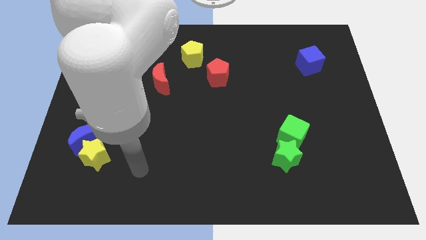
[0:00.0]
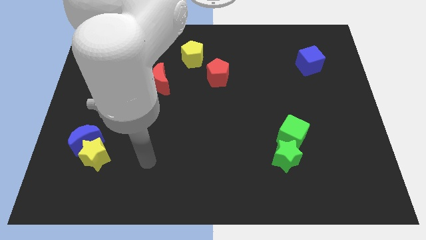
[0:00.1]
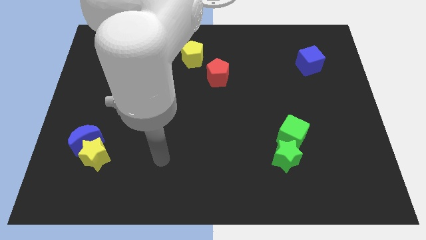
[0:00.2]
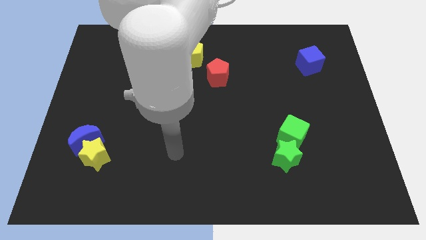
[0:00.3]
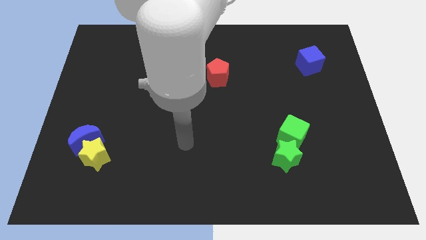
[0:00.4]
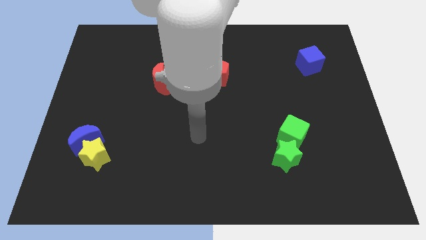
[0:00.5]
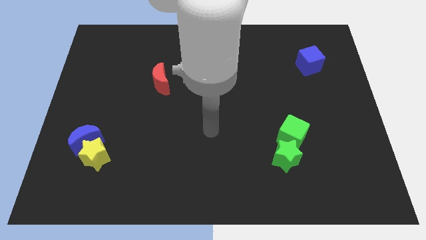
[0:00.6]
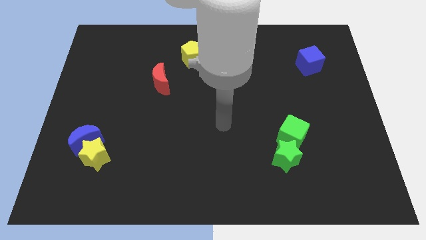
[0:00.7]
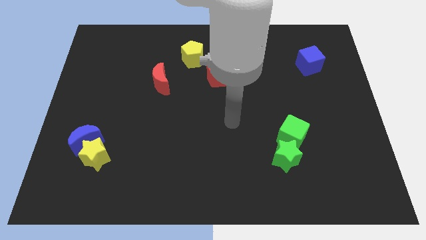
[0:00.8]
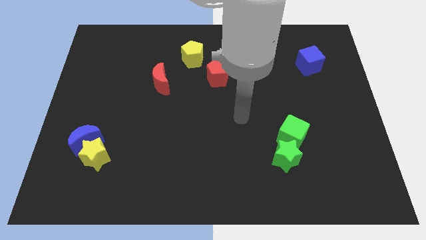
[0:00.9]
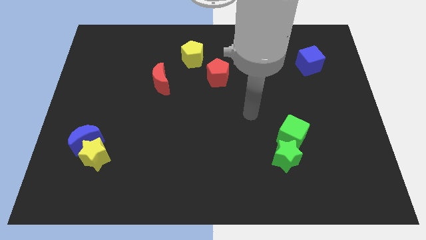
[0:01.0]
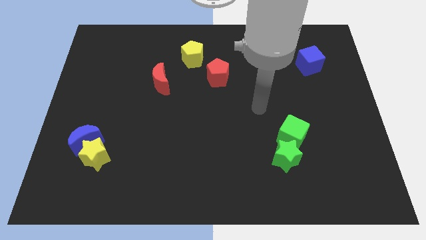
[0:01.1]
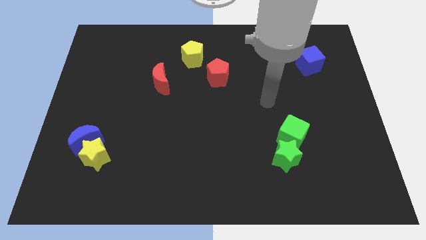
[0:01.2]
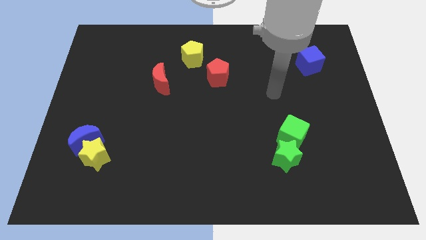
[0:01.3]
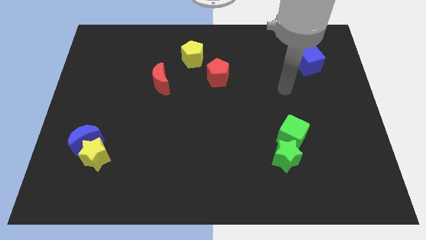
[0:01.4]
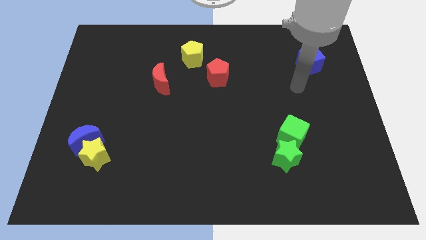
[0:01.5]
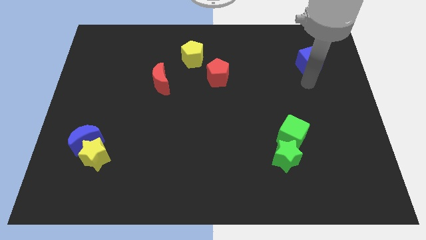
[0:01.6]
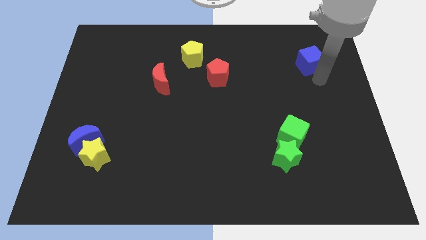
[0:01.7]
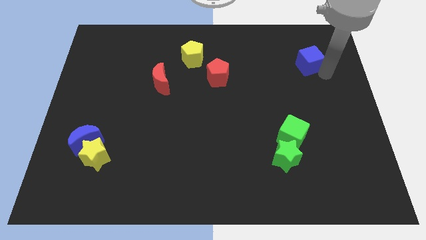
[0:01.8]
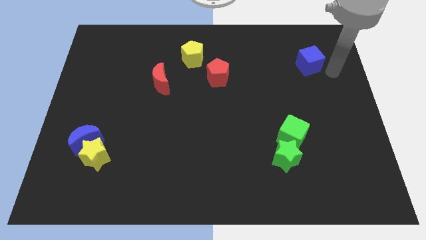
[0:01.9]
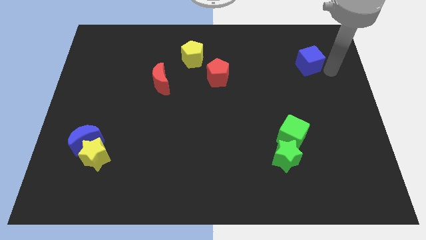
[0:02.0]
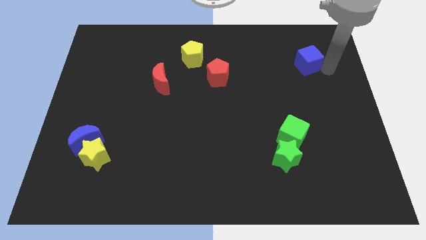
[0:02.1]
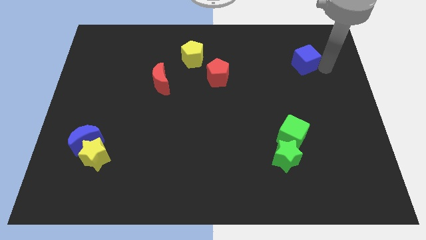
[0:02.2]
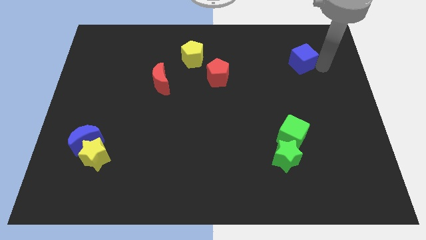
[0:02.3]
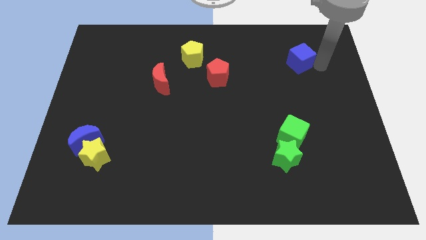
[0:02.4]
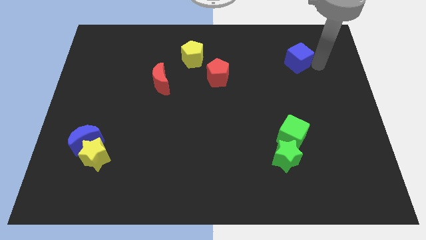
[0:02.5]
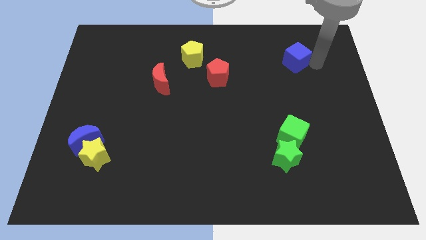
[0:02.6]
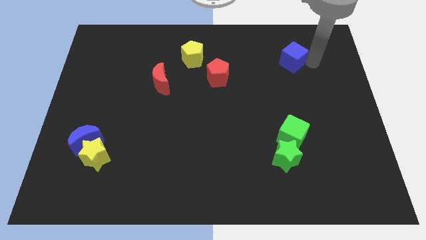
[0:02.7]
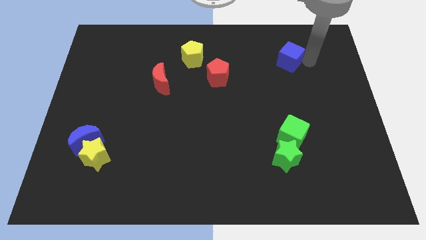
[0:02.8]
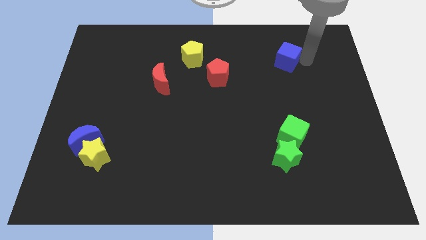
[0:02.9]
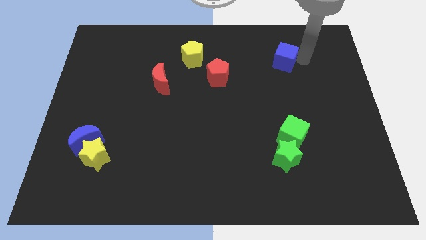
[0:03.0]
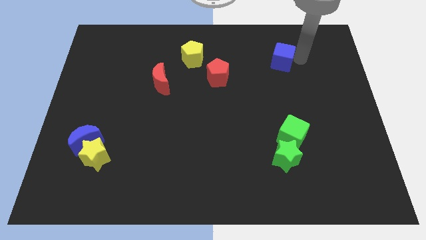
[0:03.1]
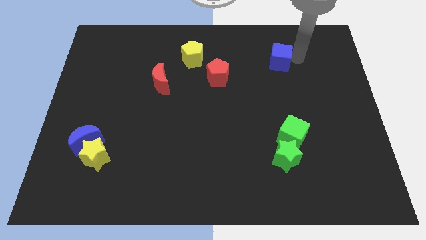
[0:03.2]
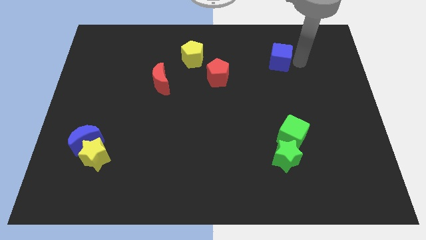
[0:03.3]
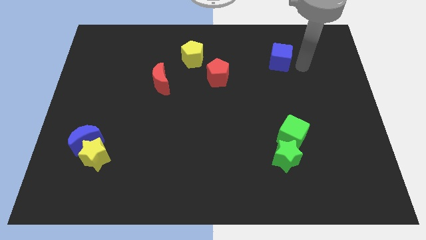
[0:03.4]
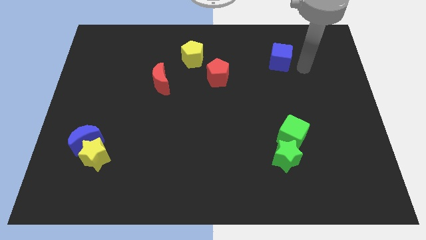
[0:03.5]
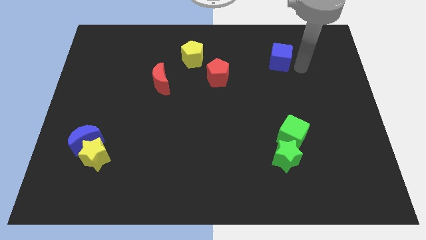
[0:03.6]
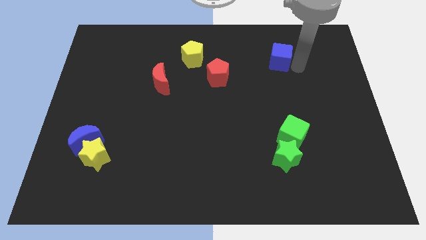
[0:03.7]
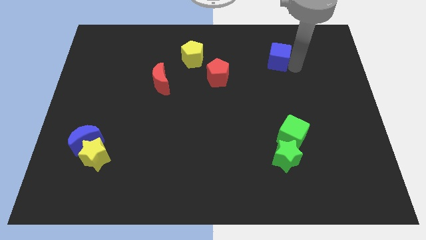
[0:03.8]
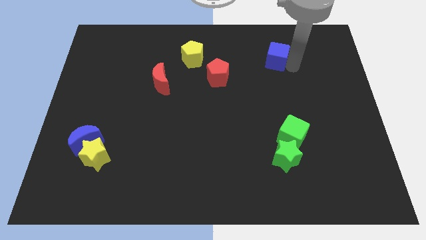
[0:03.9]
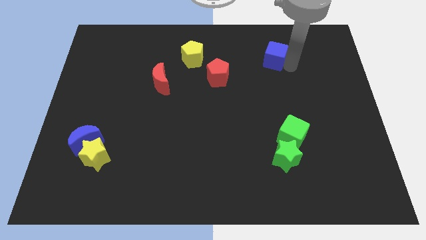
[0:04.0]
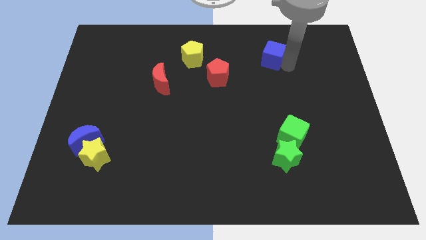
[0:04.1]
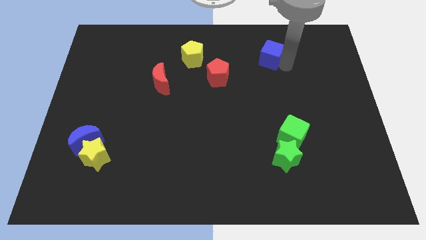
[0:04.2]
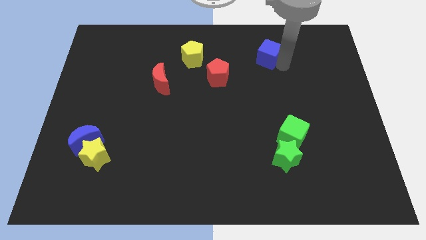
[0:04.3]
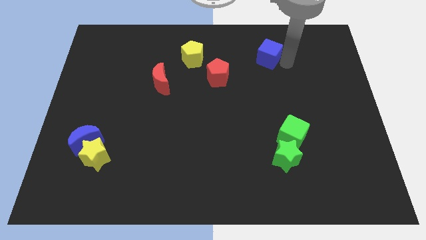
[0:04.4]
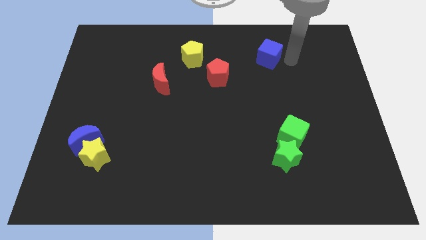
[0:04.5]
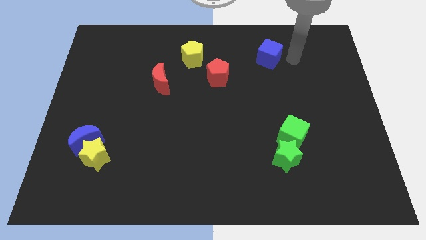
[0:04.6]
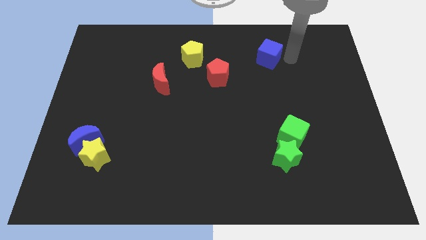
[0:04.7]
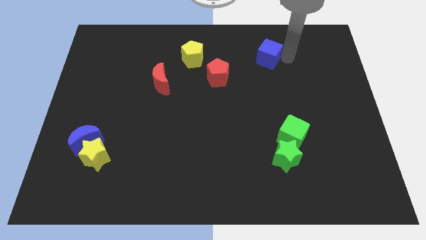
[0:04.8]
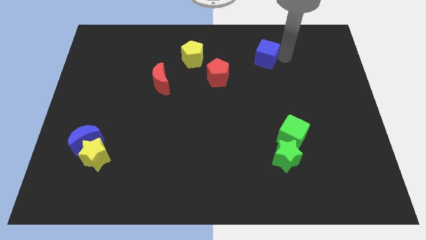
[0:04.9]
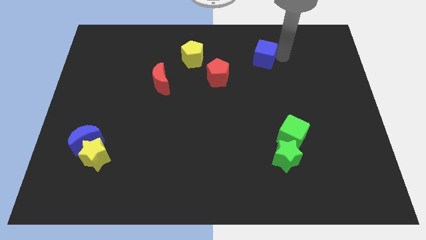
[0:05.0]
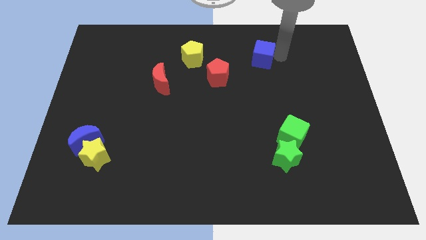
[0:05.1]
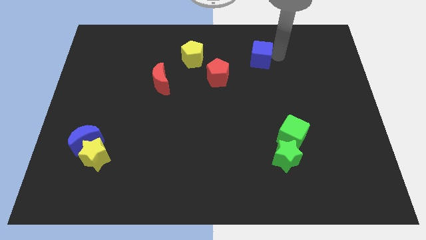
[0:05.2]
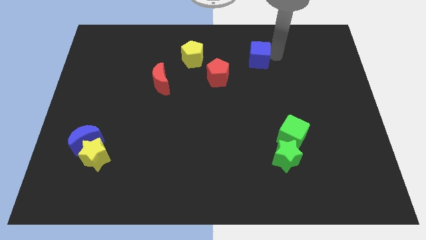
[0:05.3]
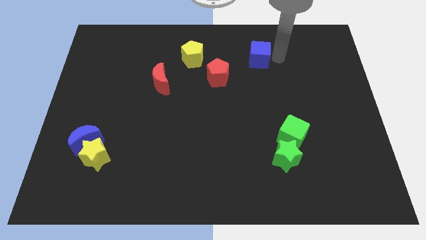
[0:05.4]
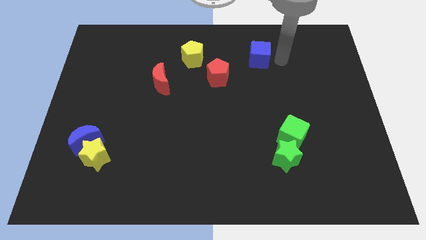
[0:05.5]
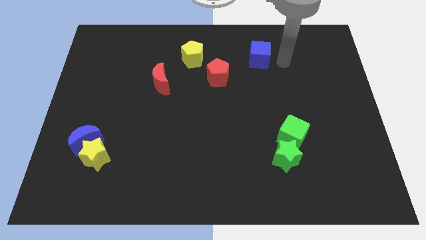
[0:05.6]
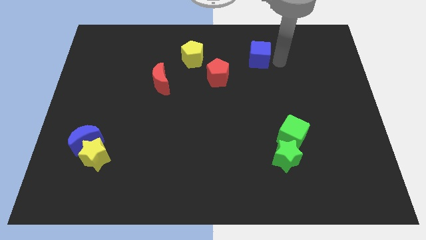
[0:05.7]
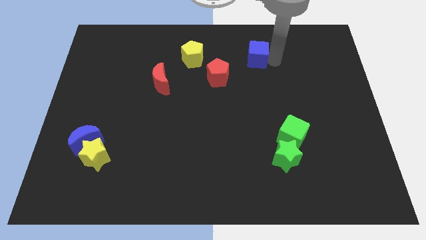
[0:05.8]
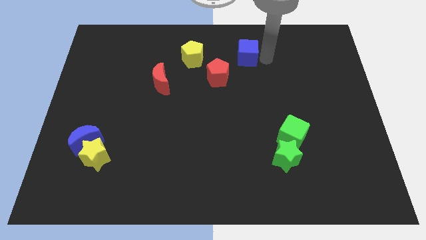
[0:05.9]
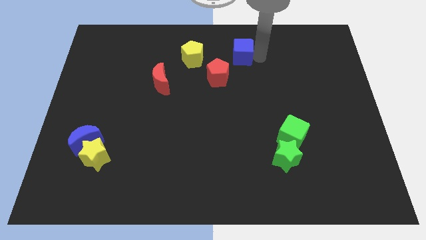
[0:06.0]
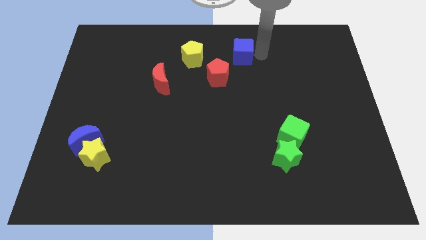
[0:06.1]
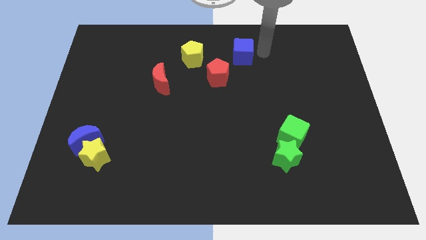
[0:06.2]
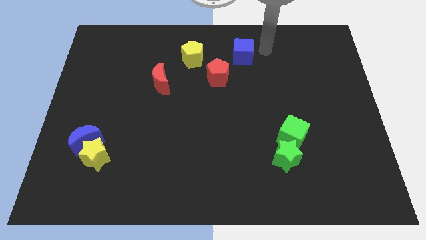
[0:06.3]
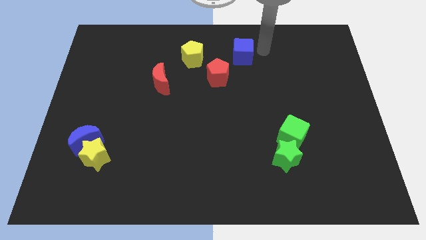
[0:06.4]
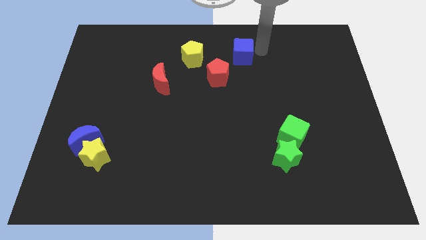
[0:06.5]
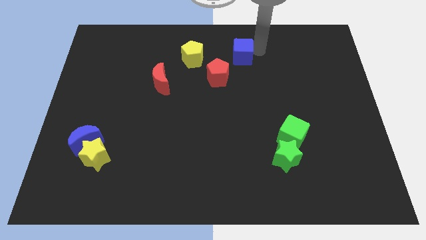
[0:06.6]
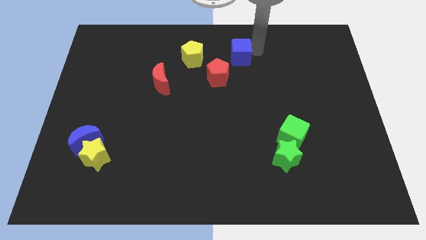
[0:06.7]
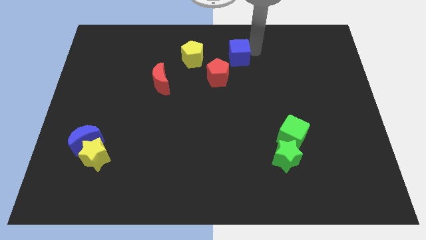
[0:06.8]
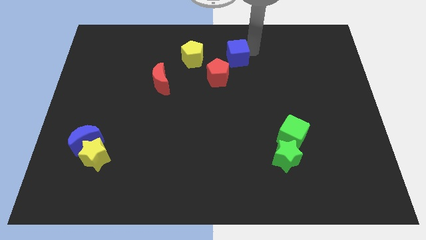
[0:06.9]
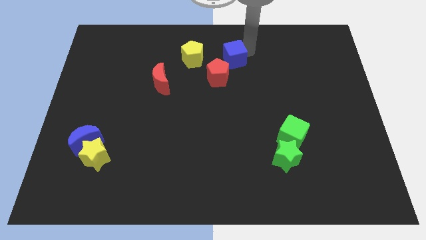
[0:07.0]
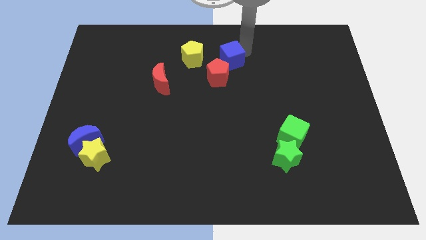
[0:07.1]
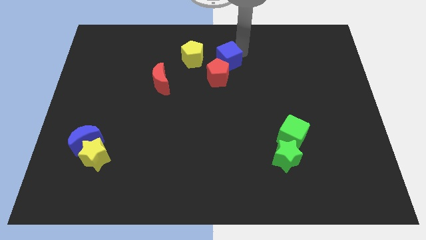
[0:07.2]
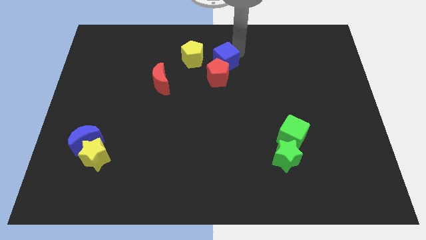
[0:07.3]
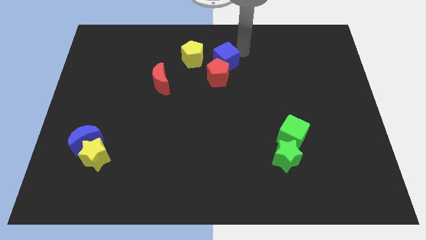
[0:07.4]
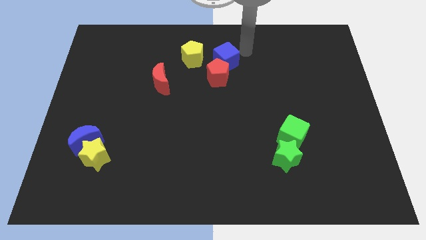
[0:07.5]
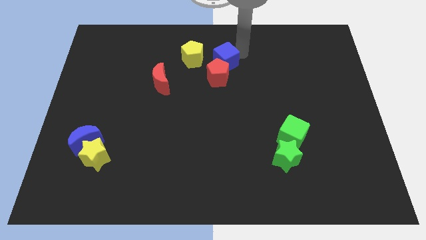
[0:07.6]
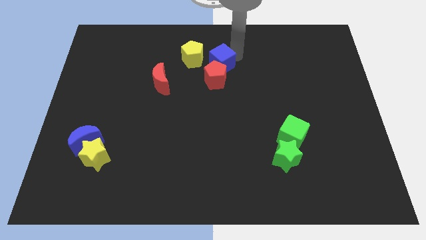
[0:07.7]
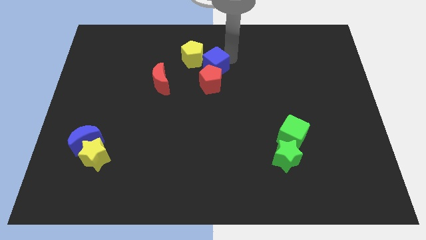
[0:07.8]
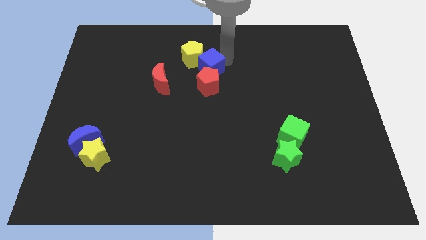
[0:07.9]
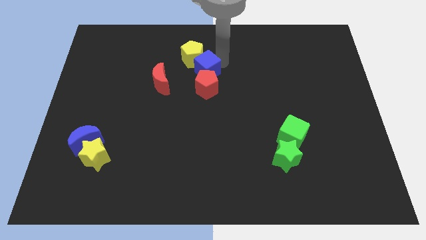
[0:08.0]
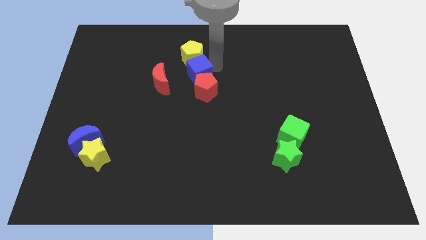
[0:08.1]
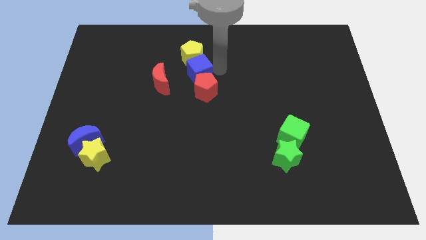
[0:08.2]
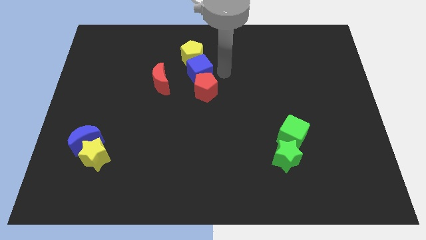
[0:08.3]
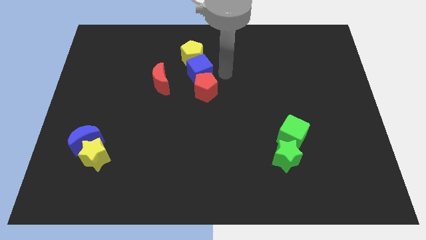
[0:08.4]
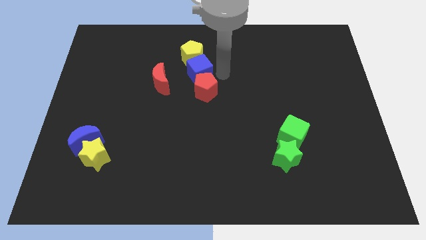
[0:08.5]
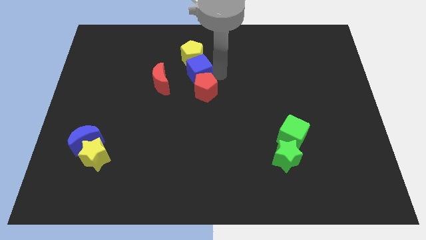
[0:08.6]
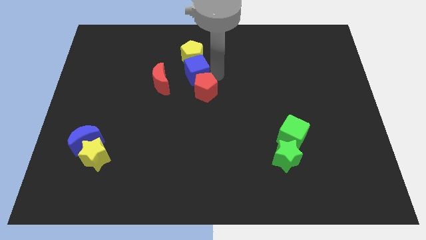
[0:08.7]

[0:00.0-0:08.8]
slide the blue cube diagonally down and to the left of the yellow pentagon
